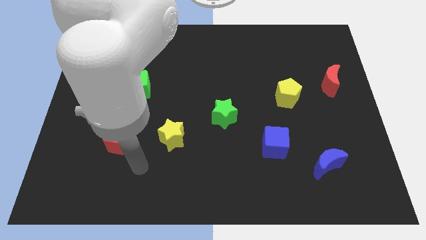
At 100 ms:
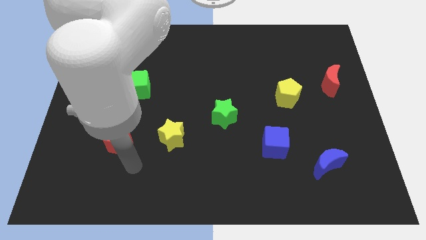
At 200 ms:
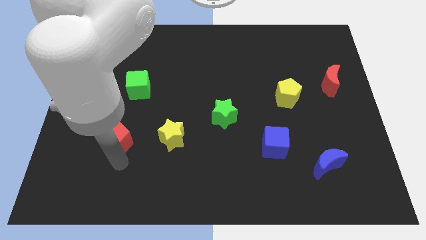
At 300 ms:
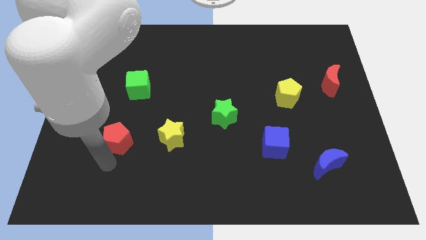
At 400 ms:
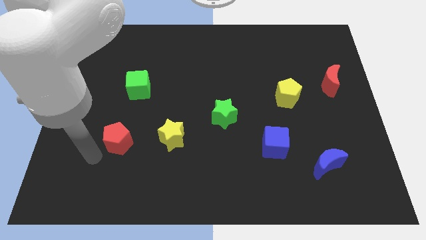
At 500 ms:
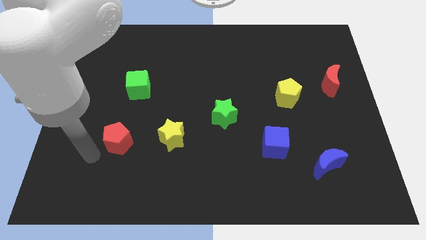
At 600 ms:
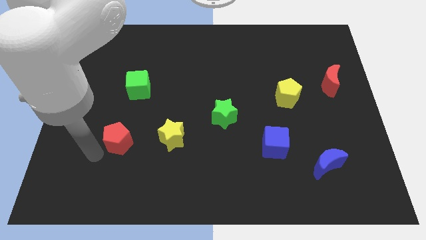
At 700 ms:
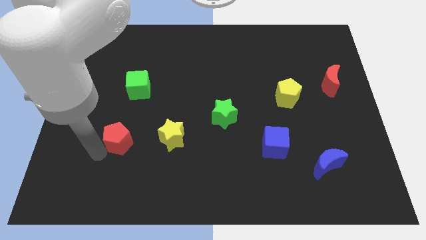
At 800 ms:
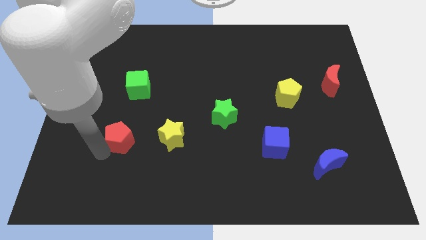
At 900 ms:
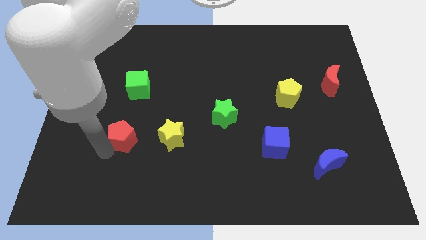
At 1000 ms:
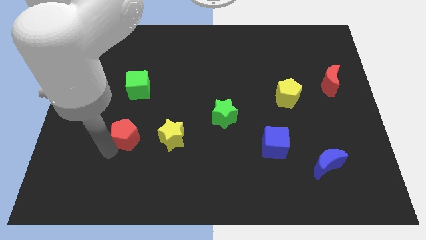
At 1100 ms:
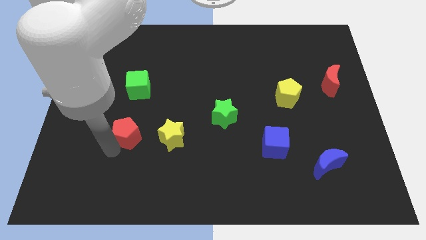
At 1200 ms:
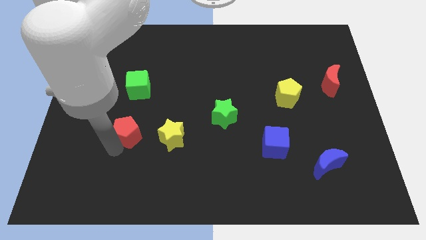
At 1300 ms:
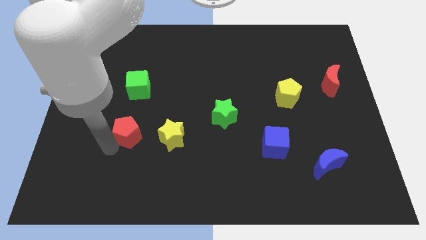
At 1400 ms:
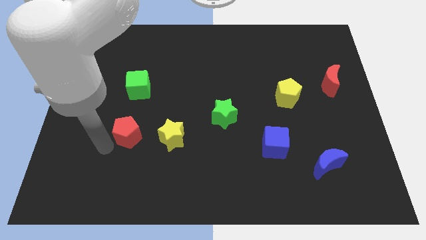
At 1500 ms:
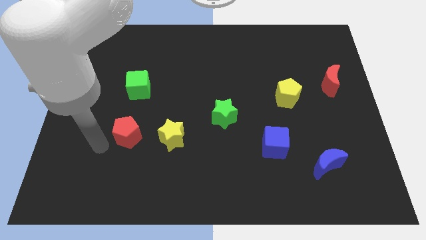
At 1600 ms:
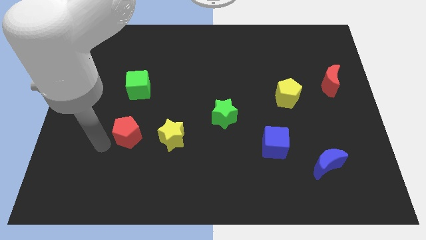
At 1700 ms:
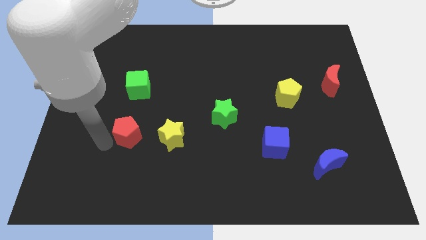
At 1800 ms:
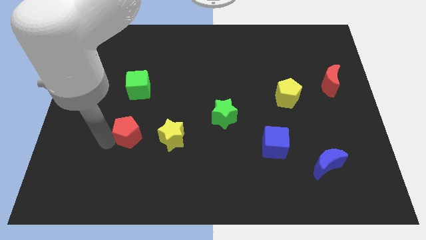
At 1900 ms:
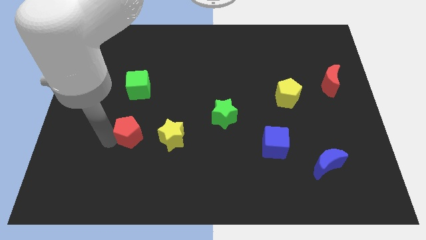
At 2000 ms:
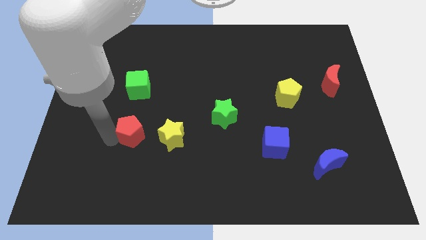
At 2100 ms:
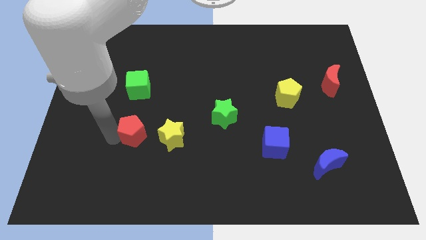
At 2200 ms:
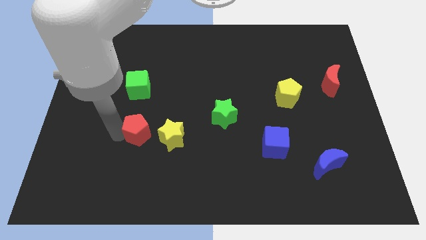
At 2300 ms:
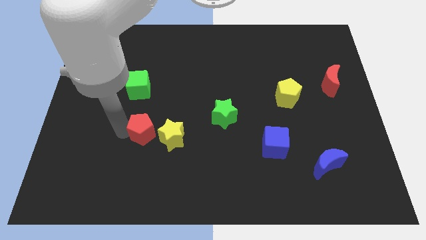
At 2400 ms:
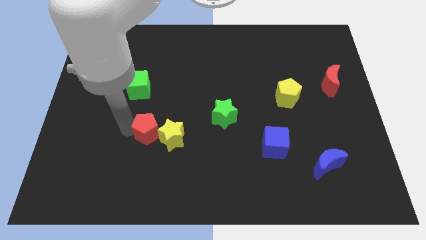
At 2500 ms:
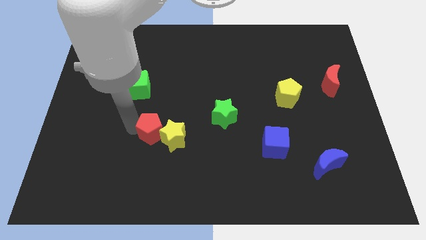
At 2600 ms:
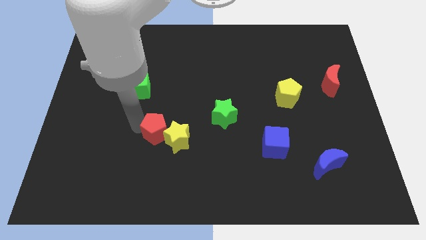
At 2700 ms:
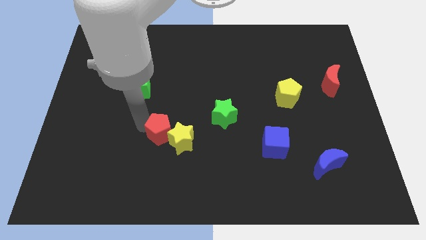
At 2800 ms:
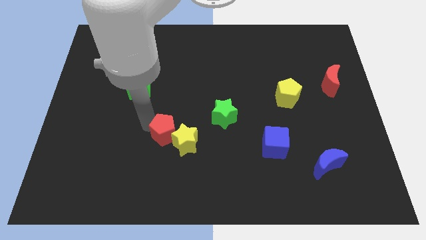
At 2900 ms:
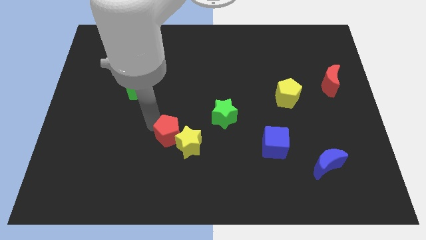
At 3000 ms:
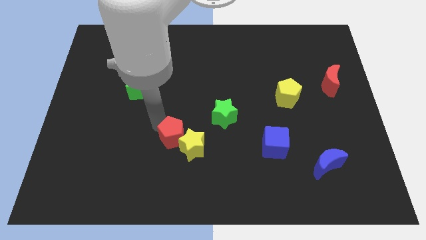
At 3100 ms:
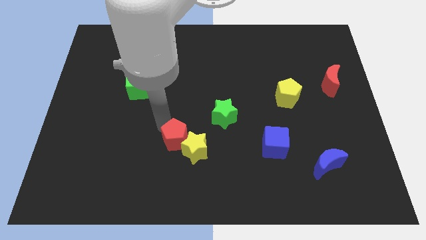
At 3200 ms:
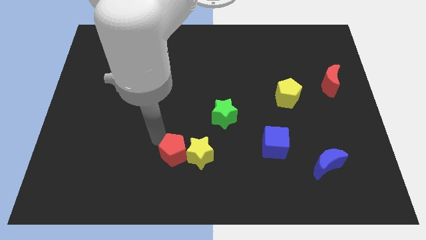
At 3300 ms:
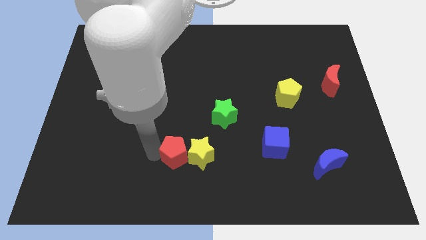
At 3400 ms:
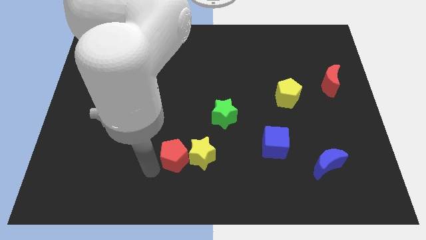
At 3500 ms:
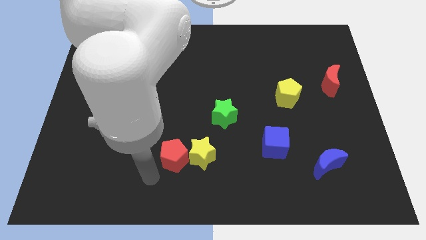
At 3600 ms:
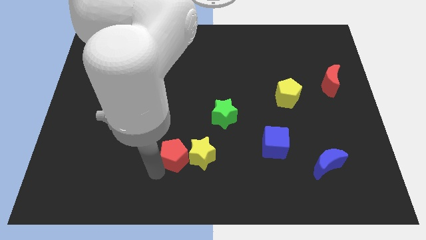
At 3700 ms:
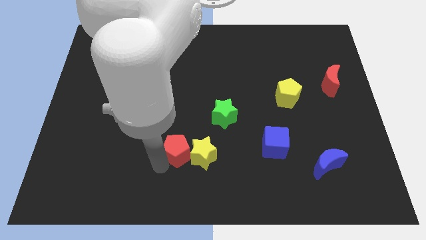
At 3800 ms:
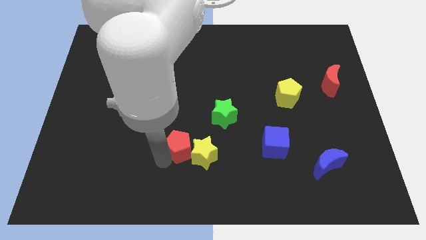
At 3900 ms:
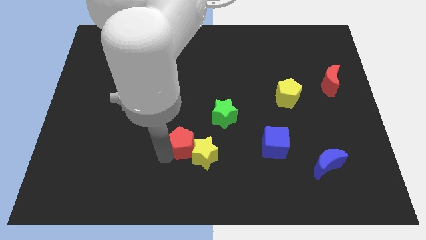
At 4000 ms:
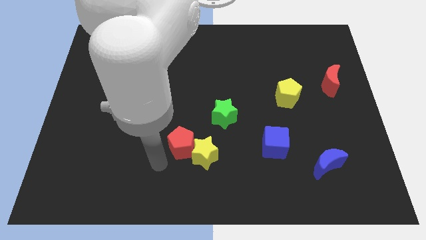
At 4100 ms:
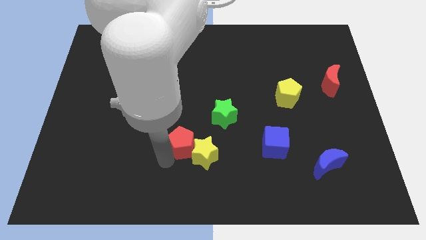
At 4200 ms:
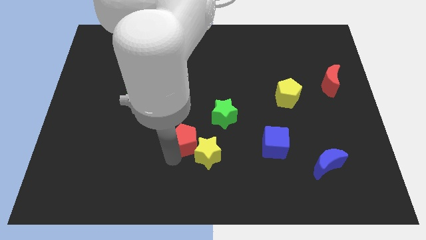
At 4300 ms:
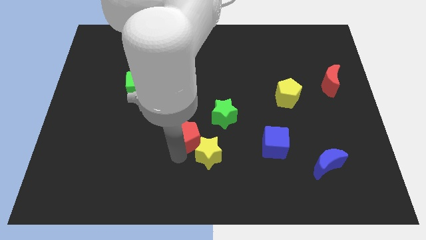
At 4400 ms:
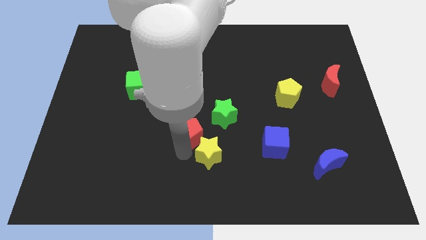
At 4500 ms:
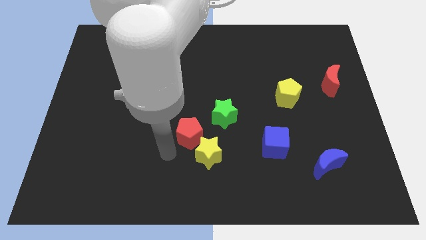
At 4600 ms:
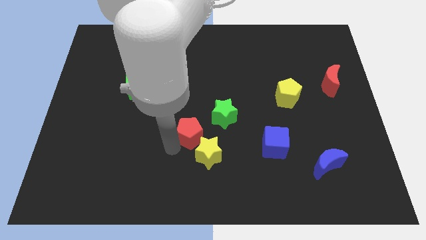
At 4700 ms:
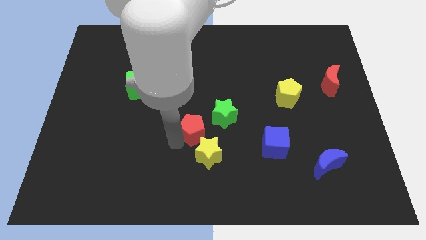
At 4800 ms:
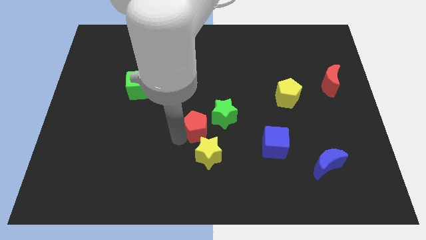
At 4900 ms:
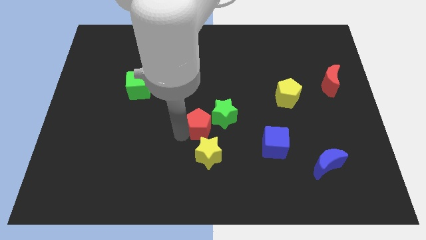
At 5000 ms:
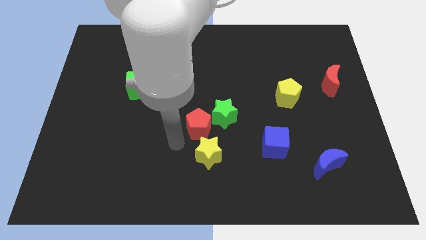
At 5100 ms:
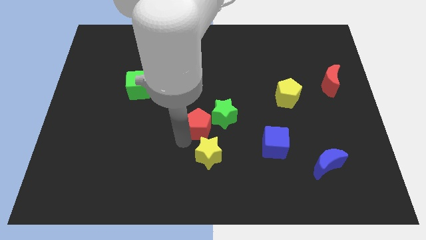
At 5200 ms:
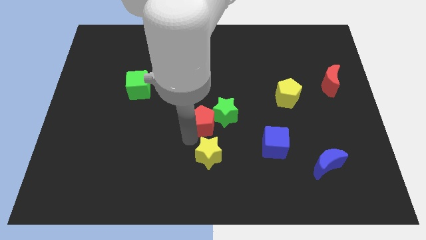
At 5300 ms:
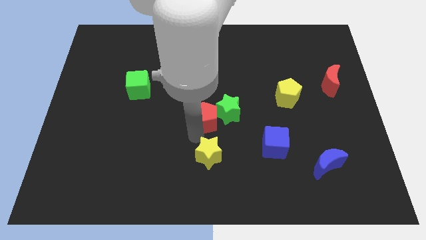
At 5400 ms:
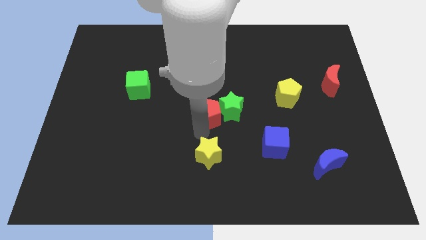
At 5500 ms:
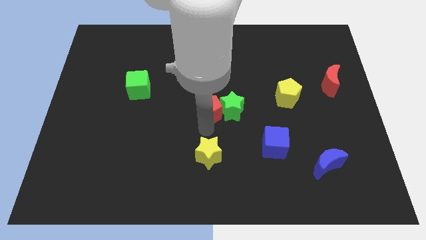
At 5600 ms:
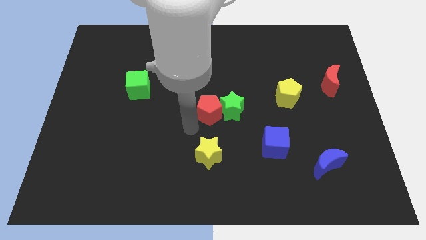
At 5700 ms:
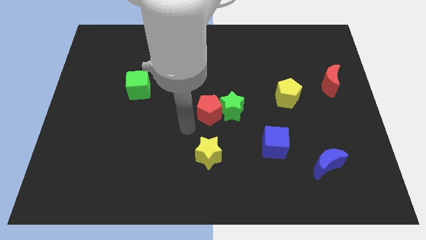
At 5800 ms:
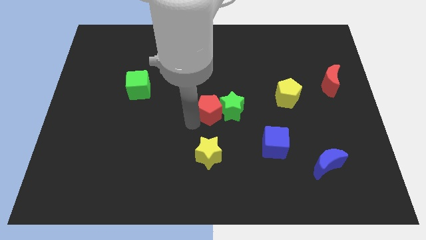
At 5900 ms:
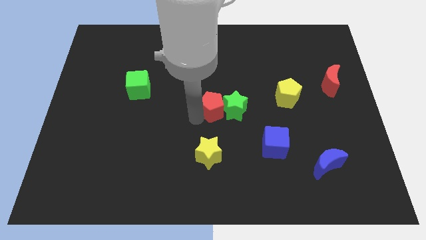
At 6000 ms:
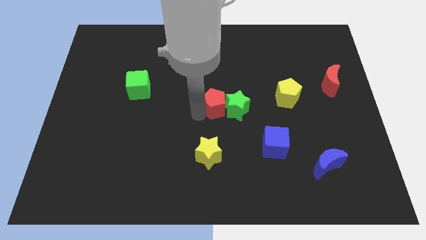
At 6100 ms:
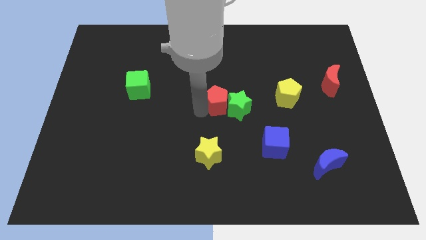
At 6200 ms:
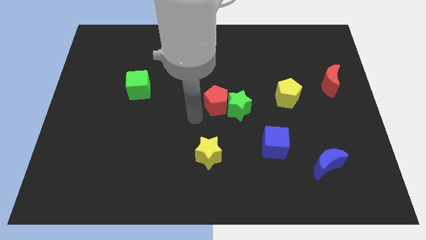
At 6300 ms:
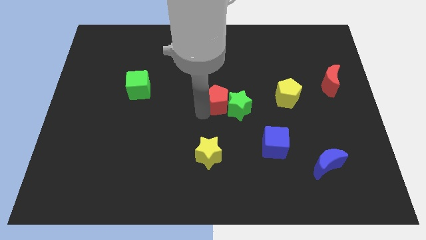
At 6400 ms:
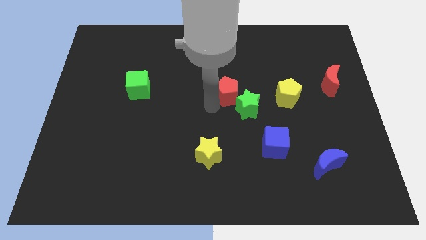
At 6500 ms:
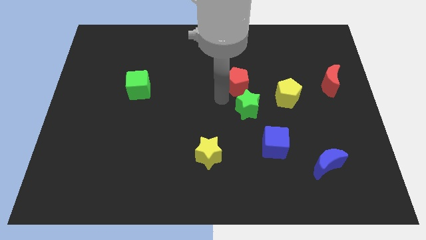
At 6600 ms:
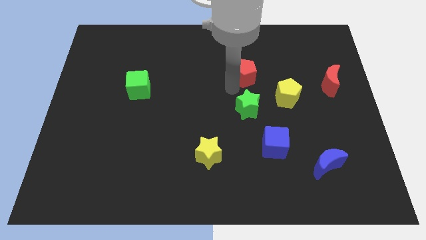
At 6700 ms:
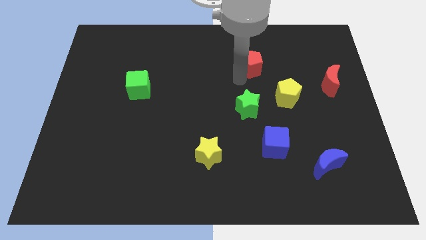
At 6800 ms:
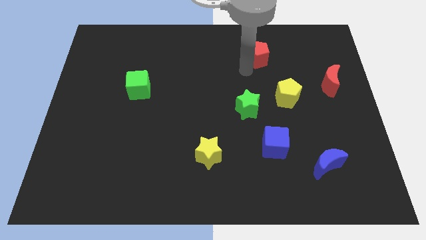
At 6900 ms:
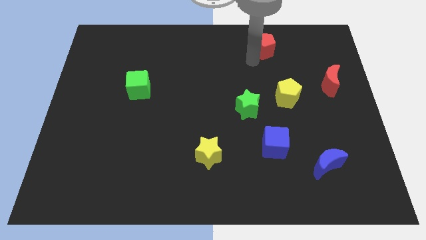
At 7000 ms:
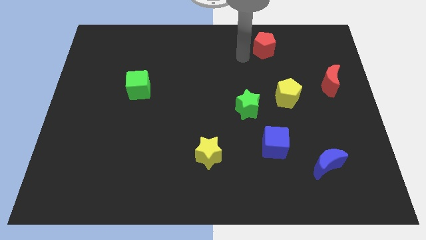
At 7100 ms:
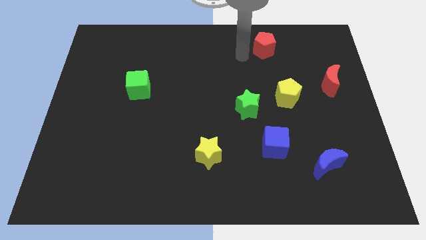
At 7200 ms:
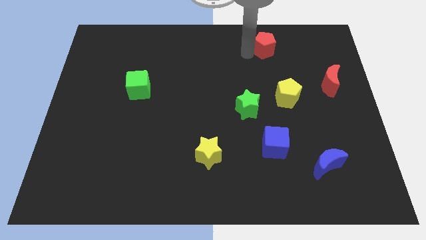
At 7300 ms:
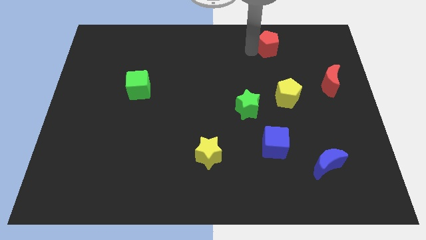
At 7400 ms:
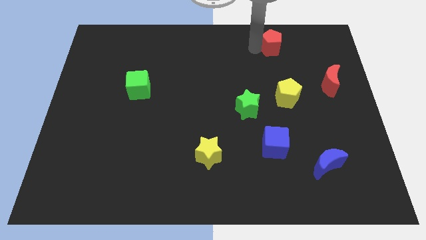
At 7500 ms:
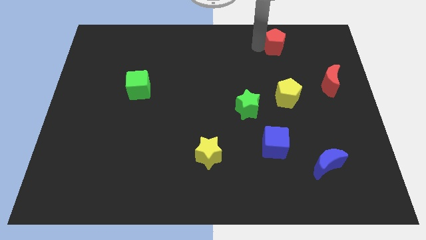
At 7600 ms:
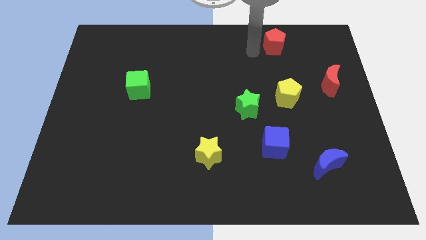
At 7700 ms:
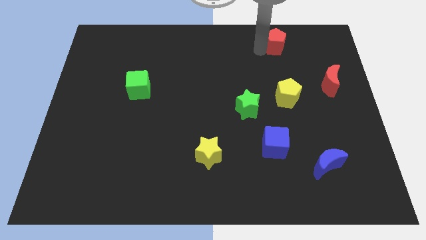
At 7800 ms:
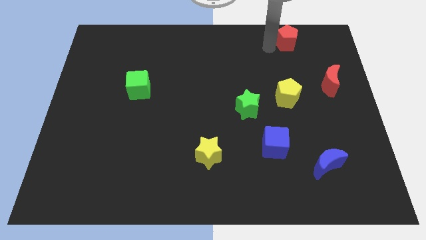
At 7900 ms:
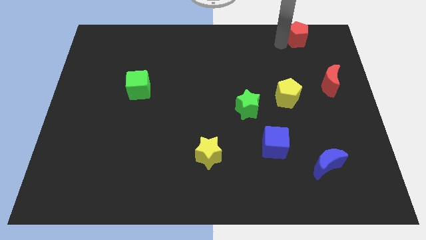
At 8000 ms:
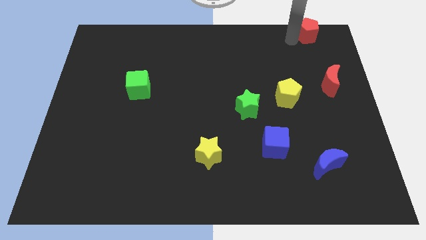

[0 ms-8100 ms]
slide the red pentagon to the upper right corner
